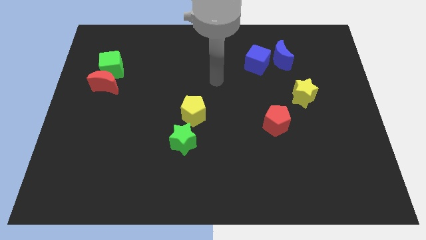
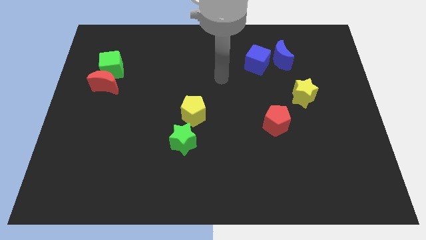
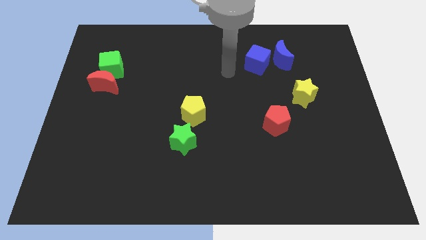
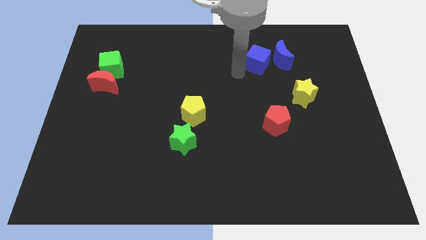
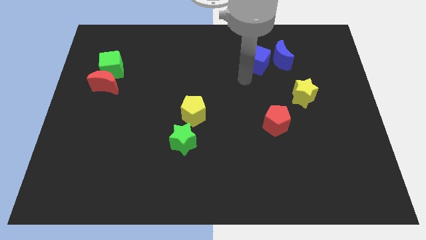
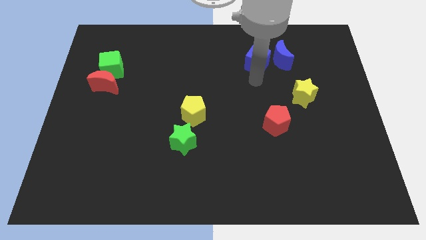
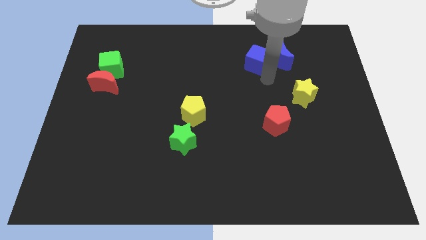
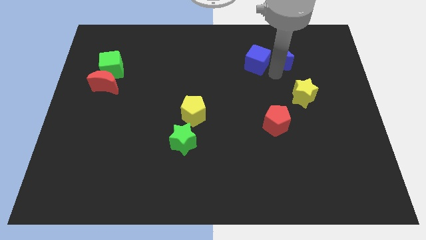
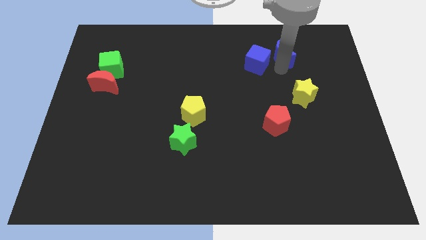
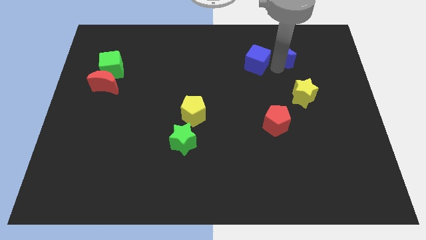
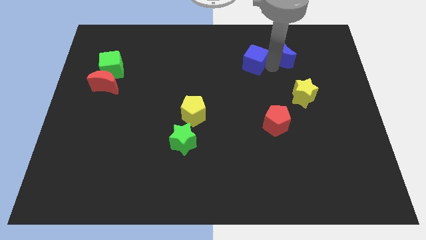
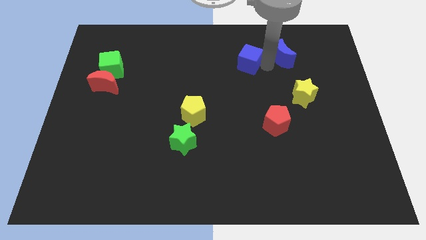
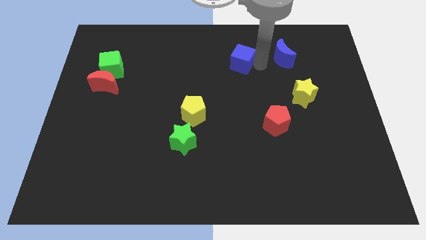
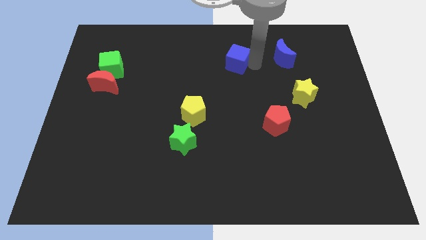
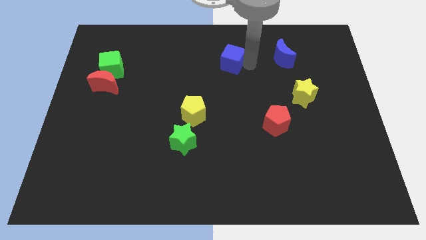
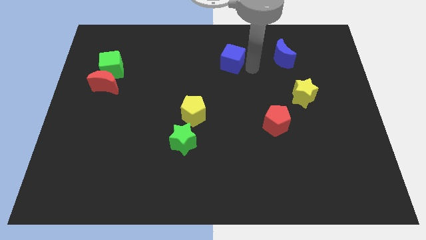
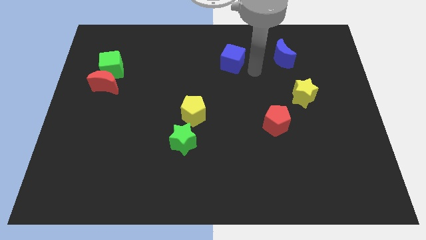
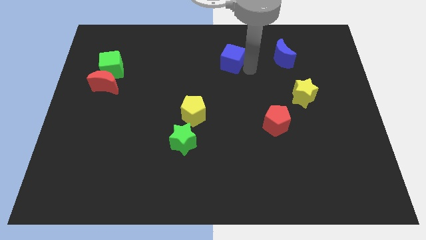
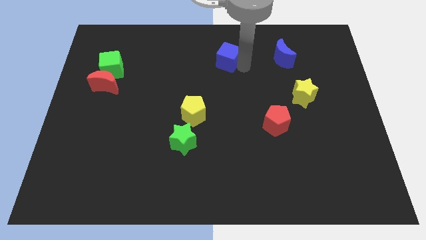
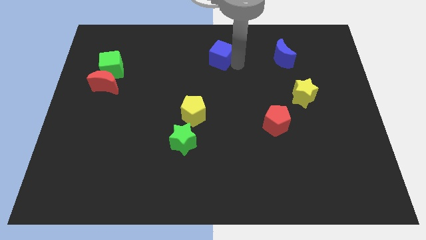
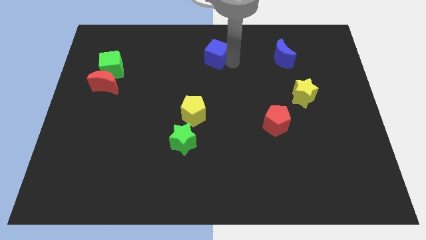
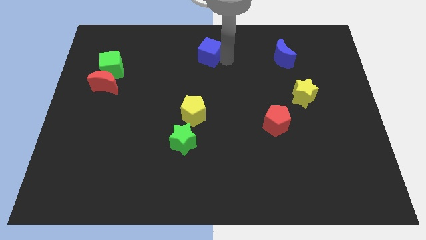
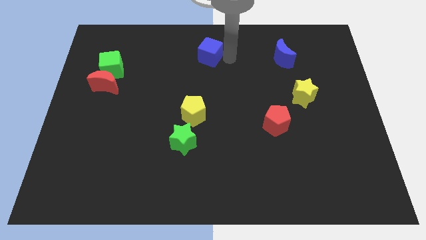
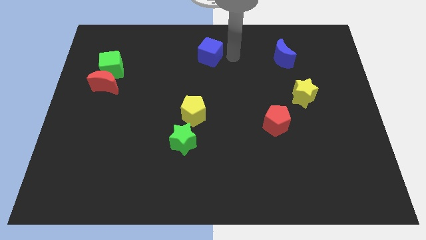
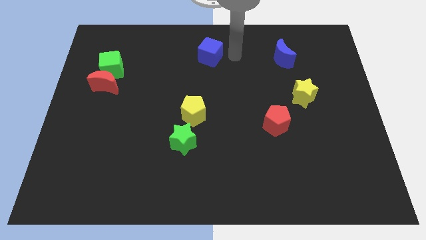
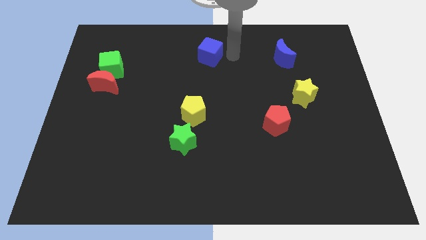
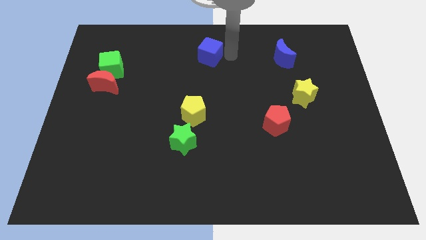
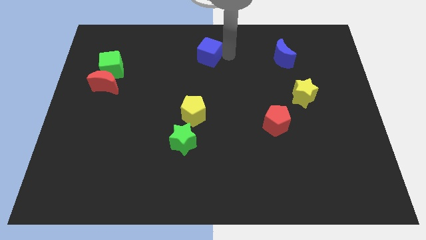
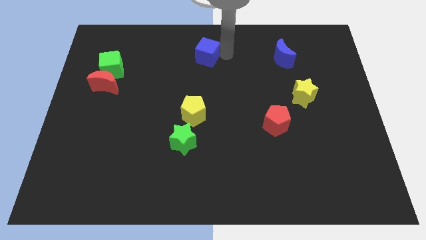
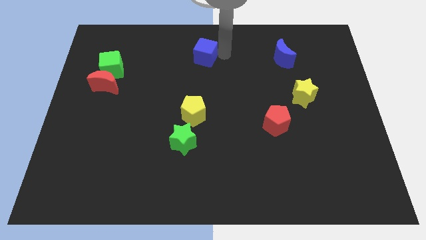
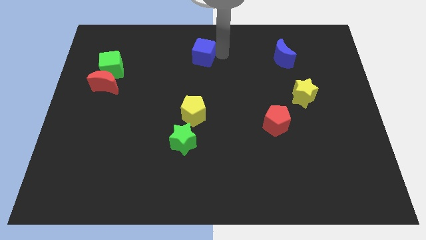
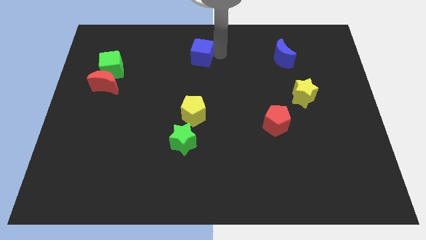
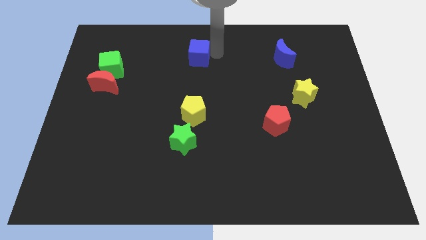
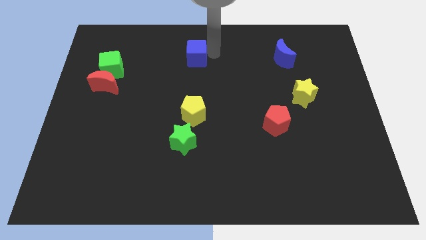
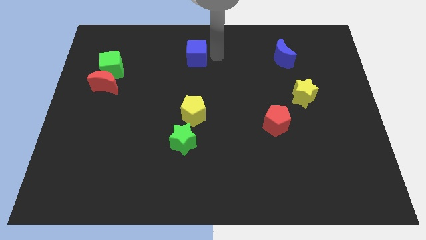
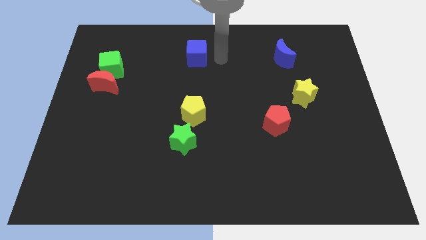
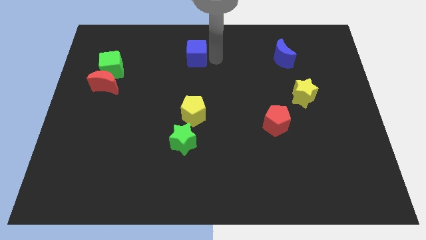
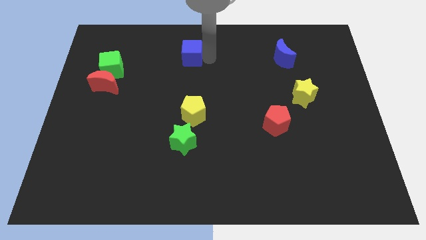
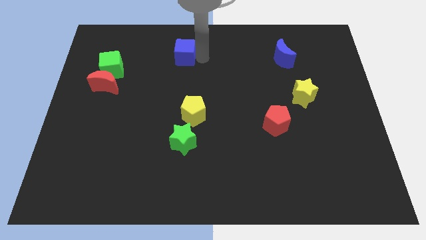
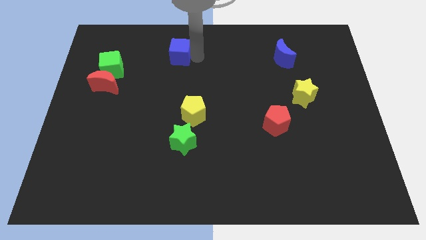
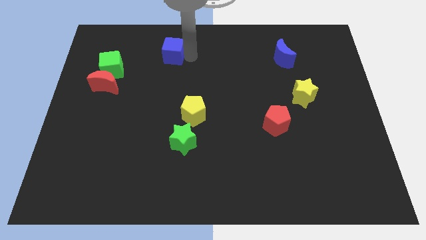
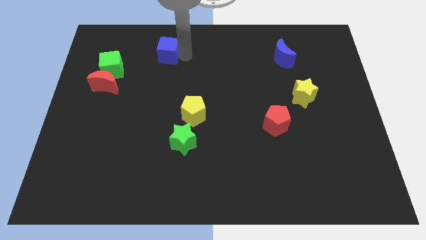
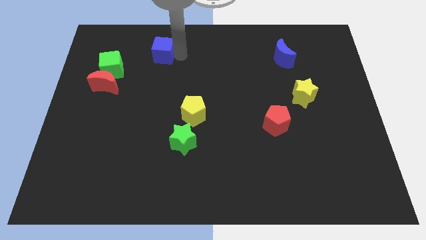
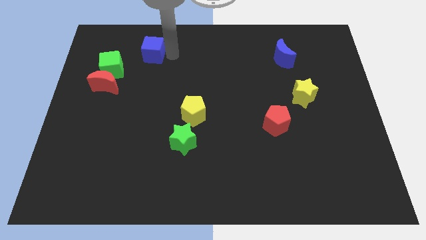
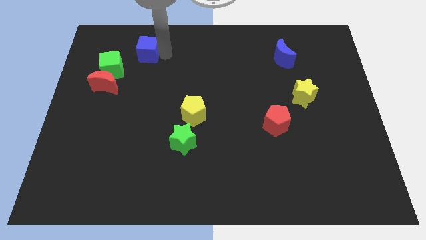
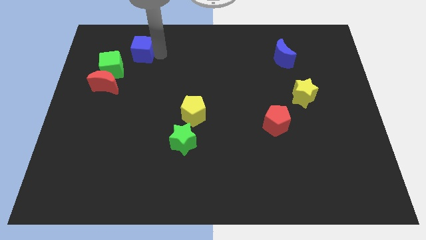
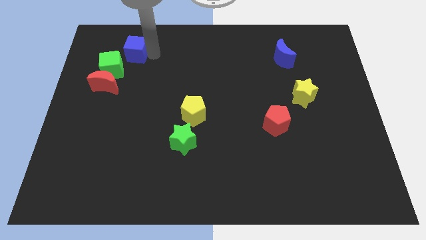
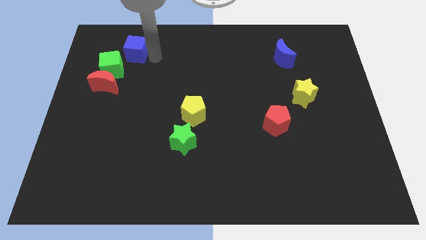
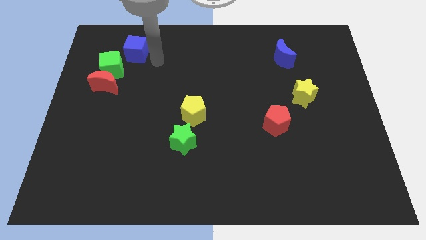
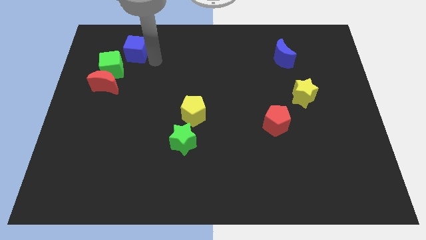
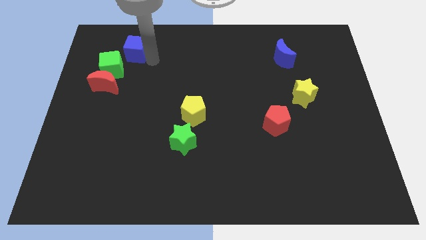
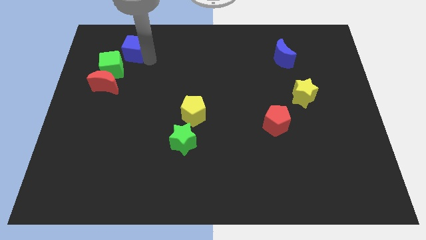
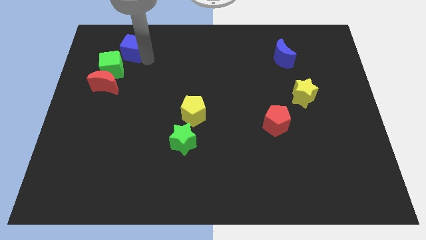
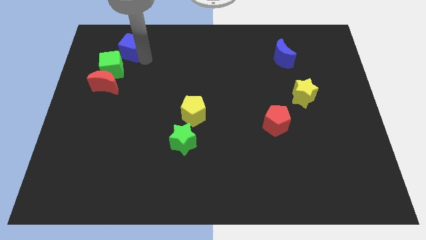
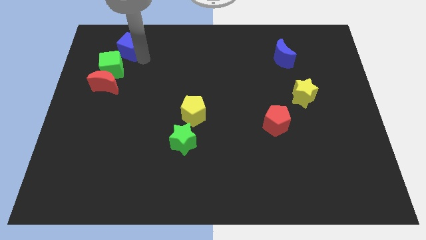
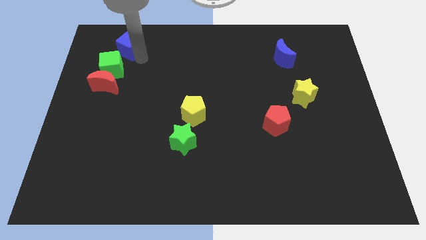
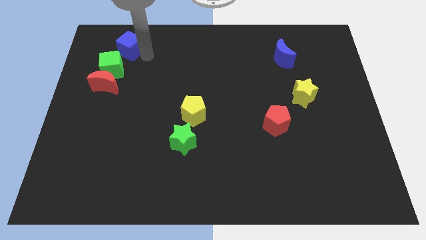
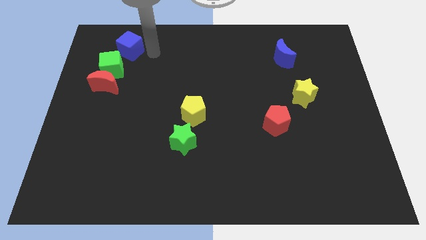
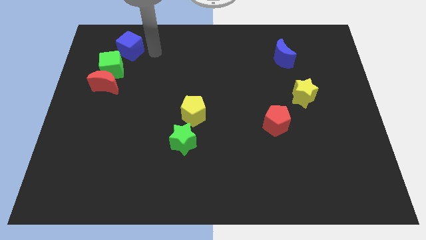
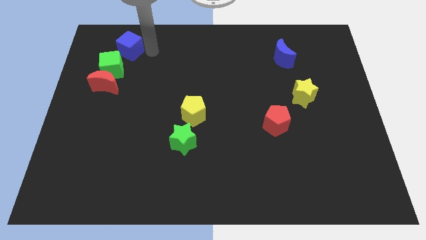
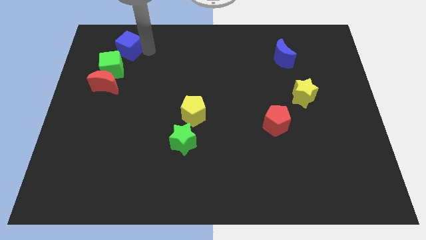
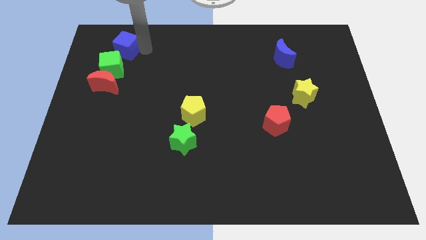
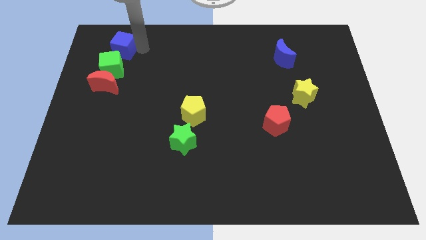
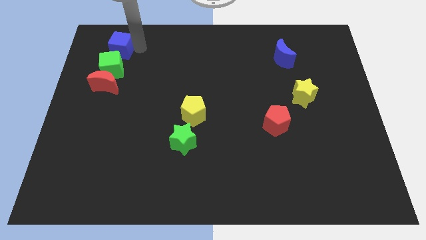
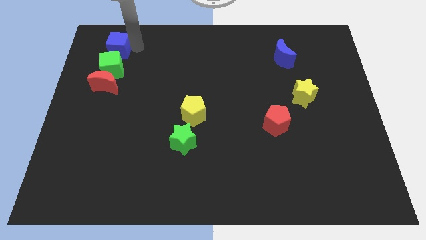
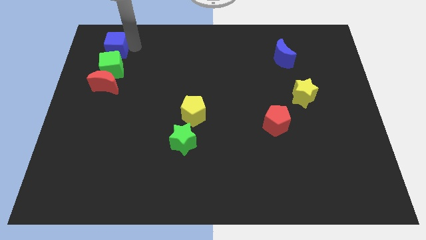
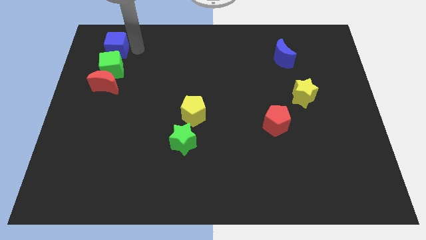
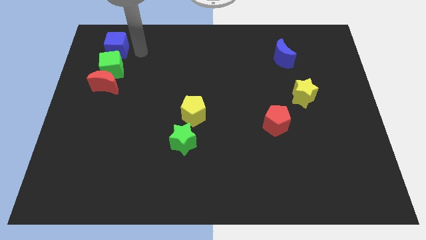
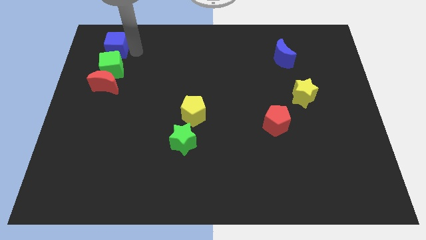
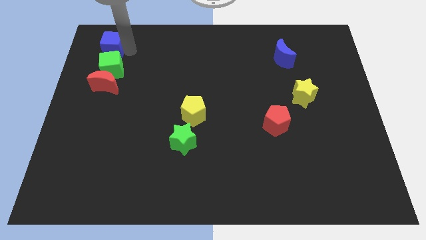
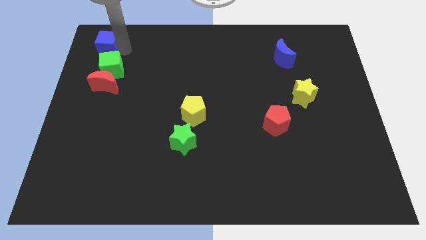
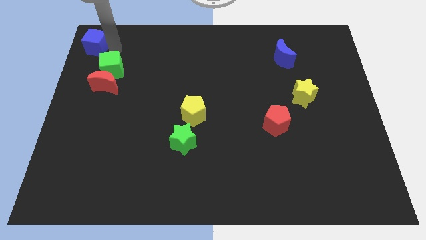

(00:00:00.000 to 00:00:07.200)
put the blue cube to the upper left corner
